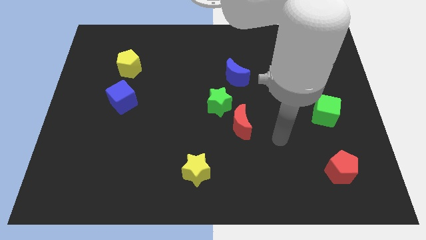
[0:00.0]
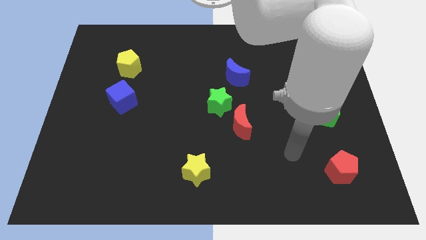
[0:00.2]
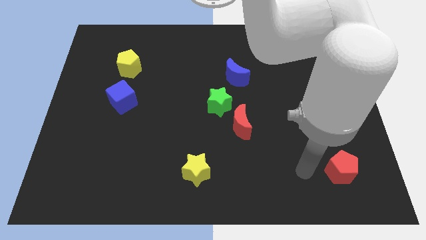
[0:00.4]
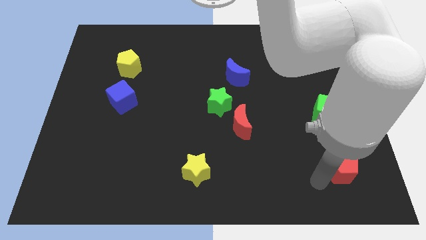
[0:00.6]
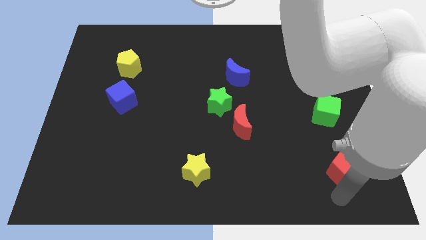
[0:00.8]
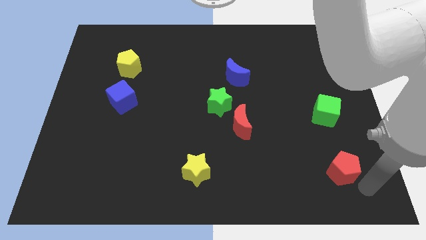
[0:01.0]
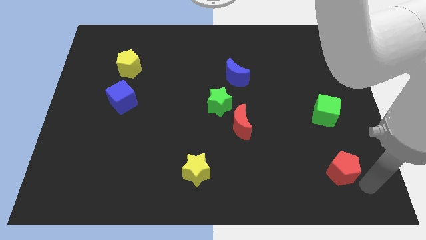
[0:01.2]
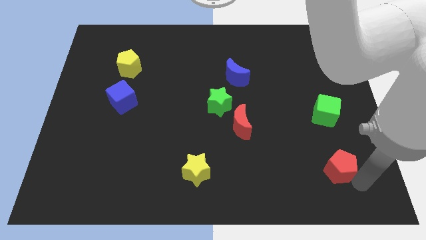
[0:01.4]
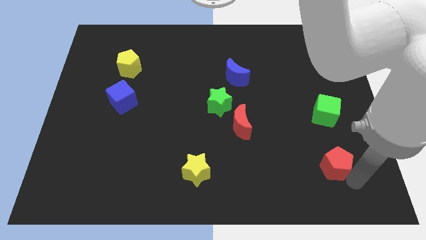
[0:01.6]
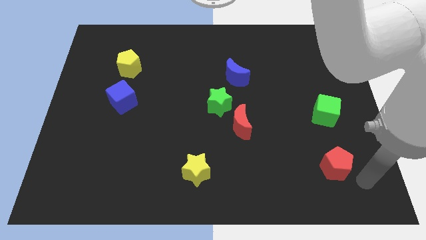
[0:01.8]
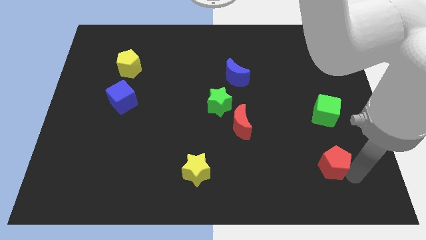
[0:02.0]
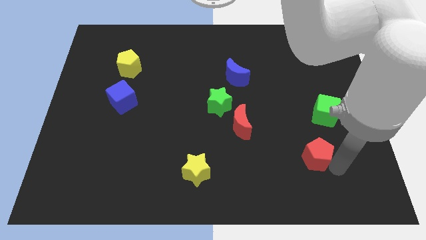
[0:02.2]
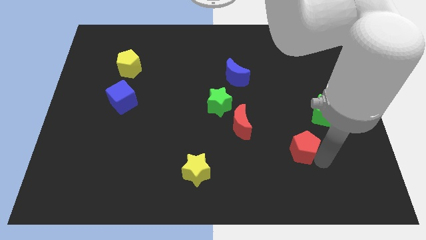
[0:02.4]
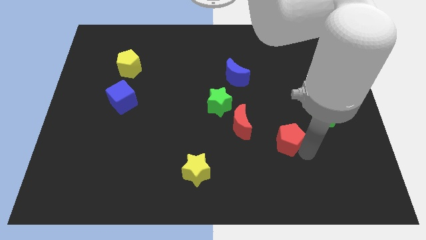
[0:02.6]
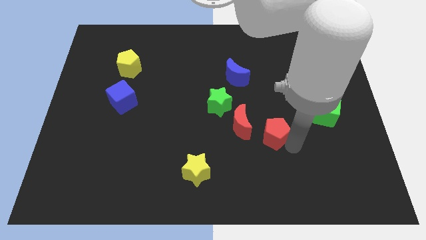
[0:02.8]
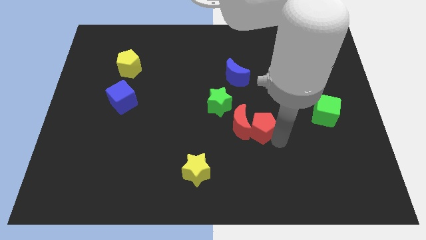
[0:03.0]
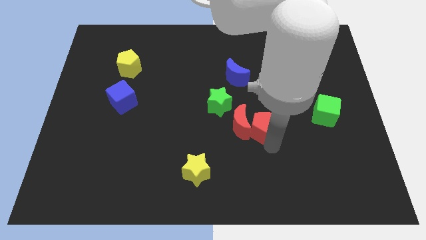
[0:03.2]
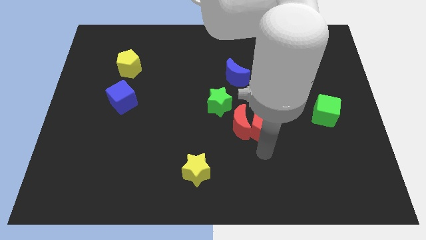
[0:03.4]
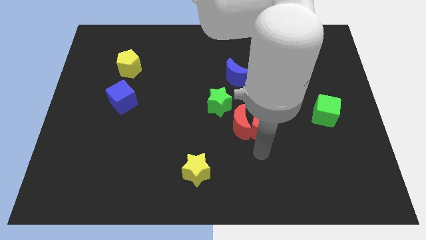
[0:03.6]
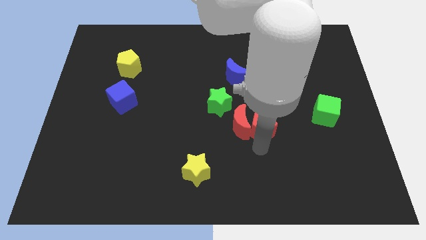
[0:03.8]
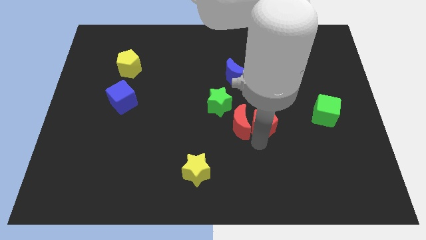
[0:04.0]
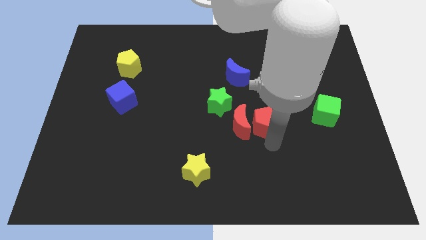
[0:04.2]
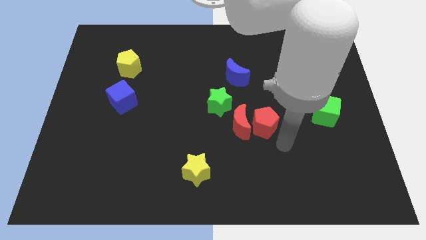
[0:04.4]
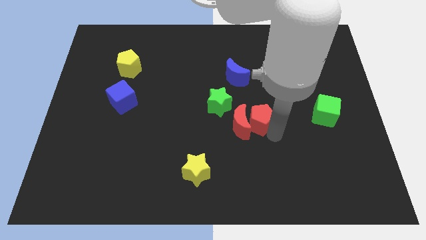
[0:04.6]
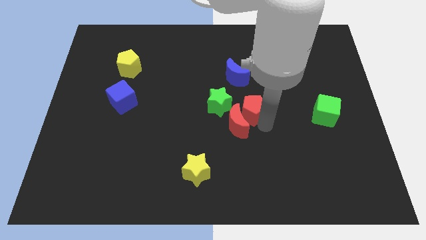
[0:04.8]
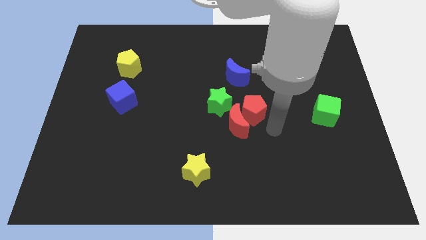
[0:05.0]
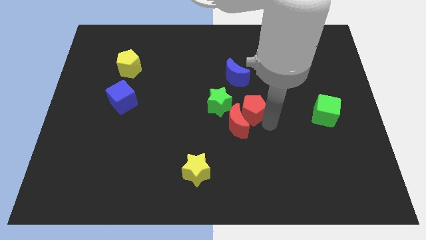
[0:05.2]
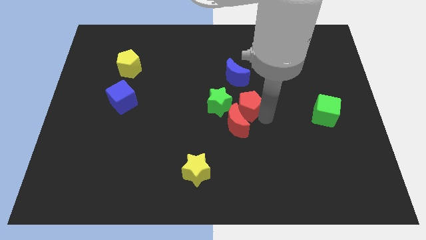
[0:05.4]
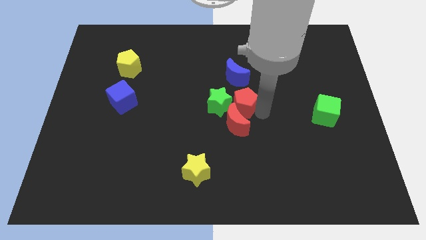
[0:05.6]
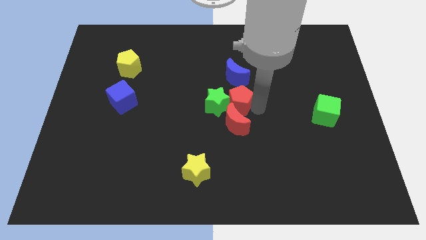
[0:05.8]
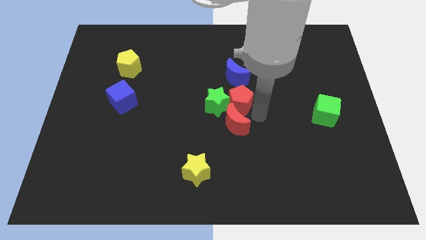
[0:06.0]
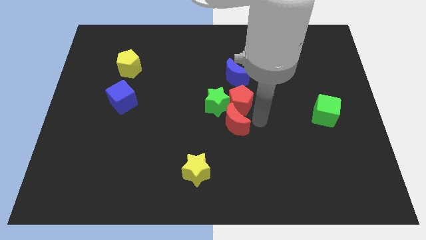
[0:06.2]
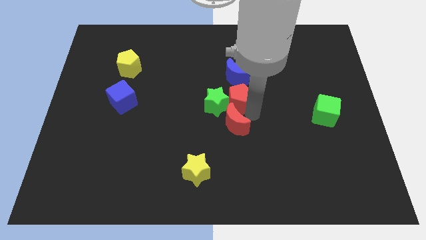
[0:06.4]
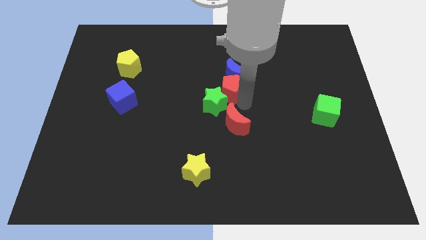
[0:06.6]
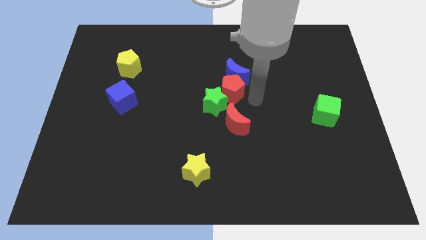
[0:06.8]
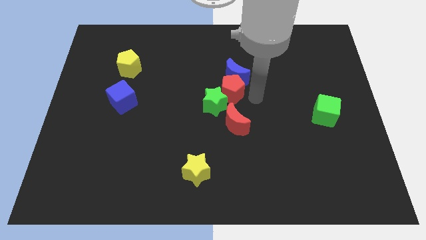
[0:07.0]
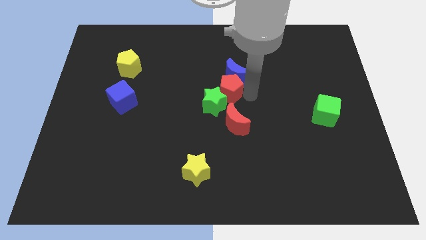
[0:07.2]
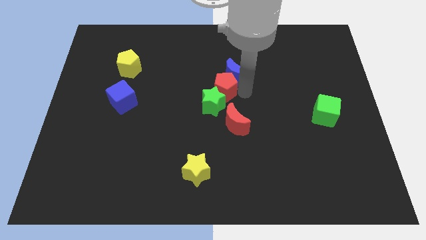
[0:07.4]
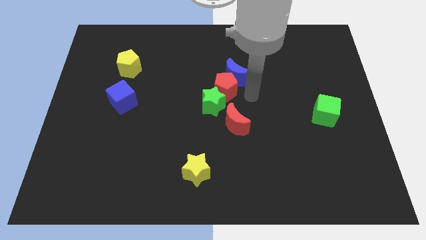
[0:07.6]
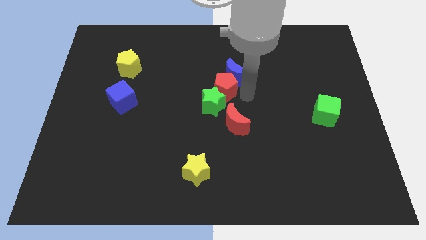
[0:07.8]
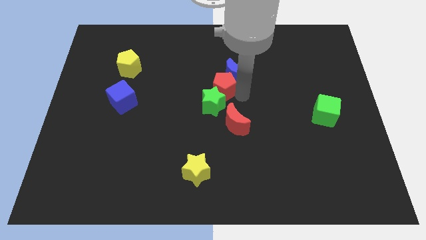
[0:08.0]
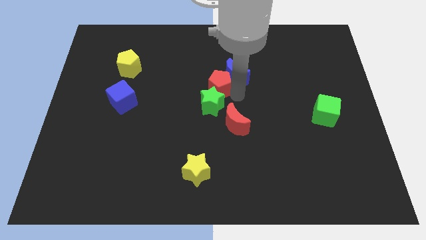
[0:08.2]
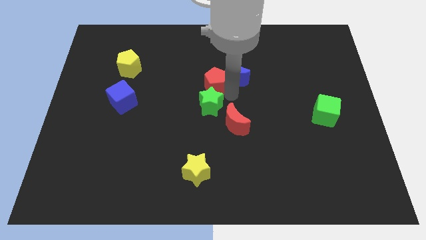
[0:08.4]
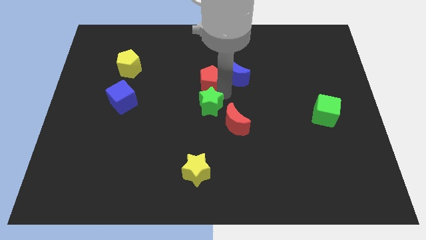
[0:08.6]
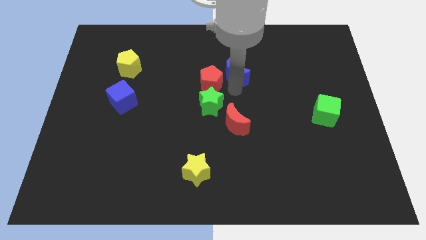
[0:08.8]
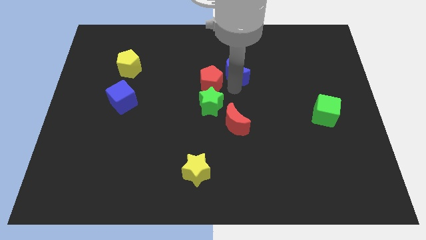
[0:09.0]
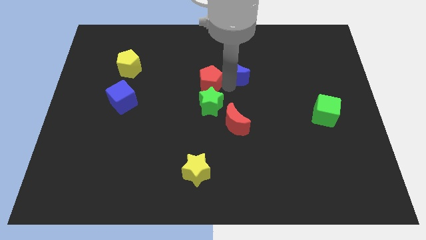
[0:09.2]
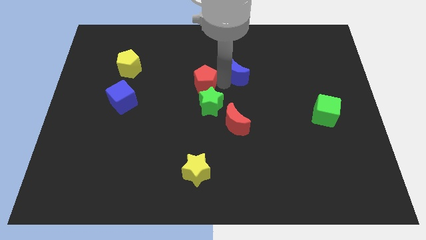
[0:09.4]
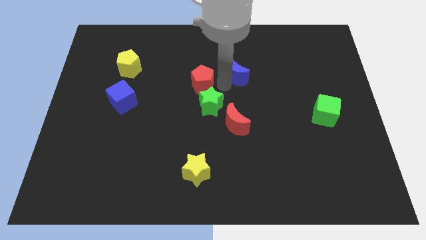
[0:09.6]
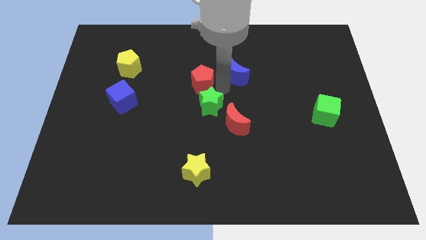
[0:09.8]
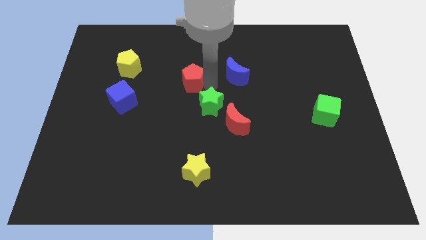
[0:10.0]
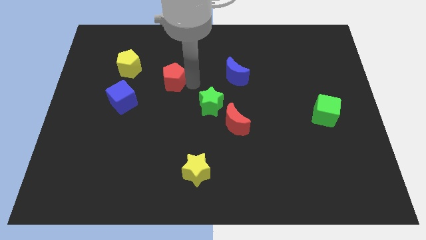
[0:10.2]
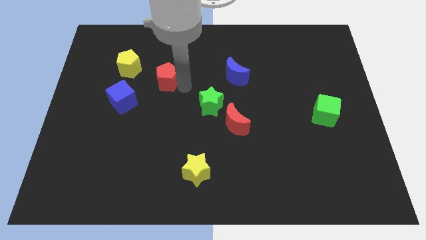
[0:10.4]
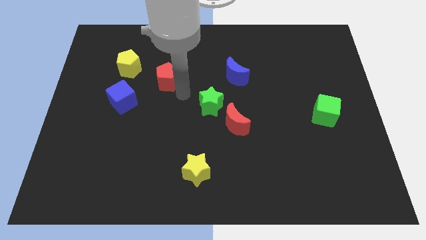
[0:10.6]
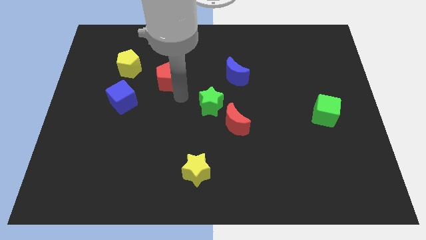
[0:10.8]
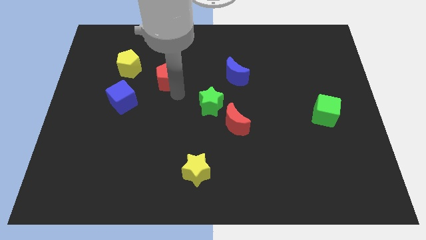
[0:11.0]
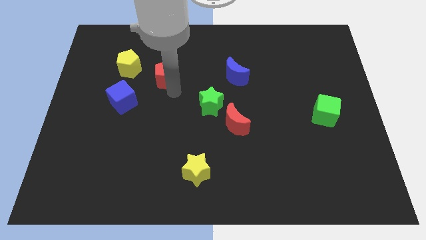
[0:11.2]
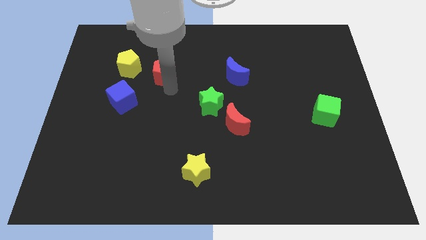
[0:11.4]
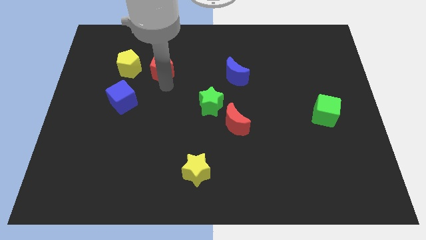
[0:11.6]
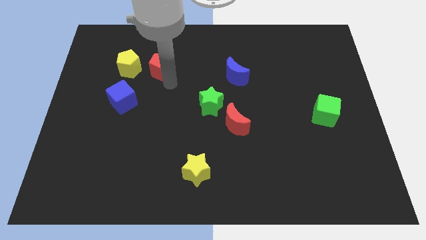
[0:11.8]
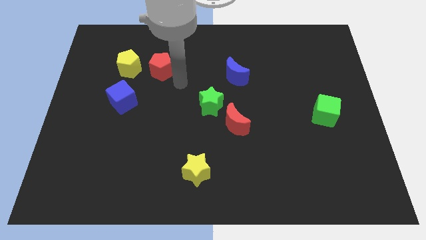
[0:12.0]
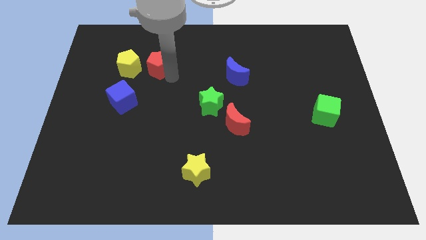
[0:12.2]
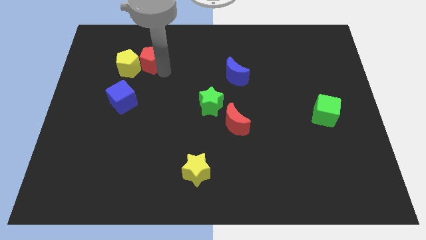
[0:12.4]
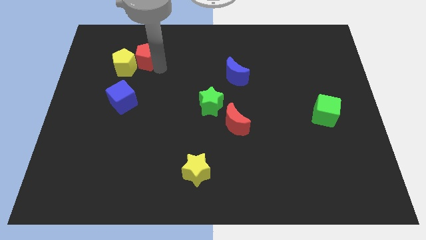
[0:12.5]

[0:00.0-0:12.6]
push the red pentagon to the top of the blue cube

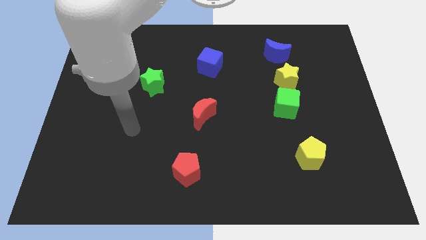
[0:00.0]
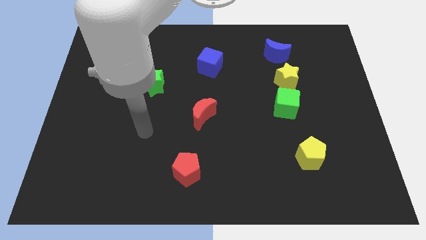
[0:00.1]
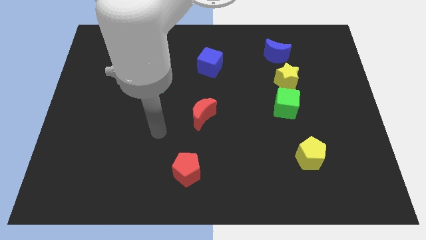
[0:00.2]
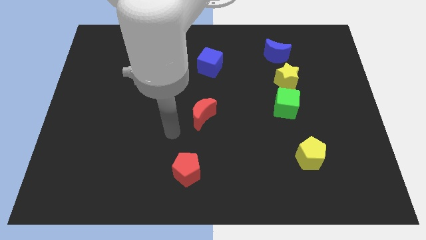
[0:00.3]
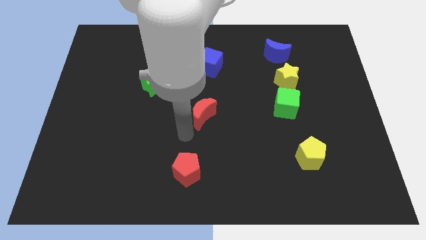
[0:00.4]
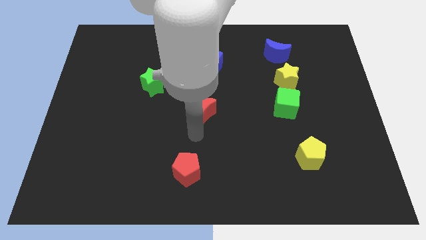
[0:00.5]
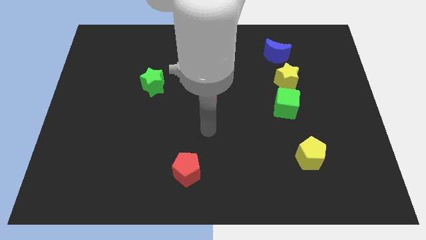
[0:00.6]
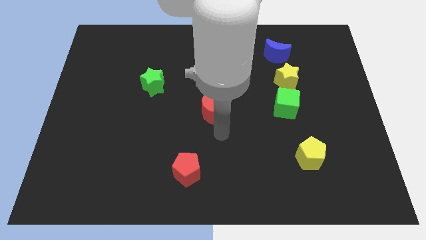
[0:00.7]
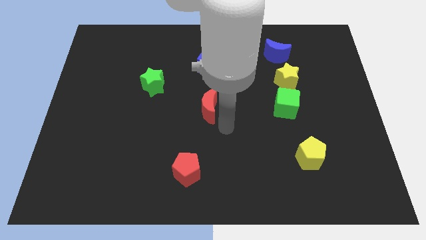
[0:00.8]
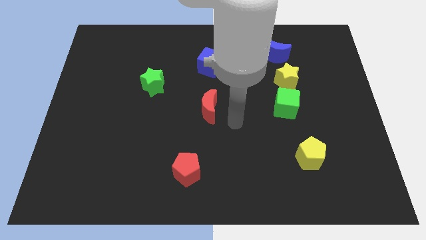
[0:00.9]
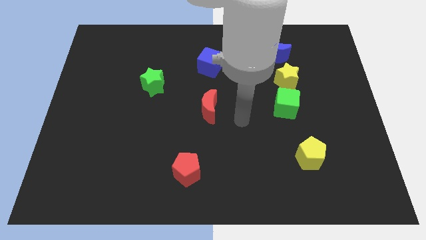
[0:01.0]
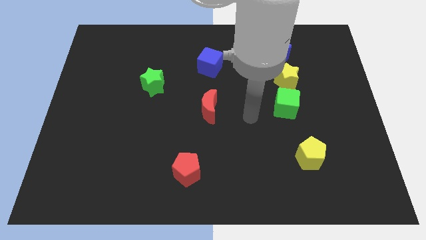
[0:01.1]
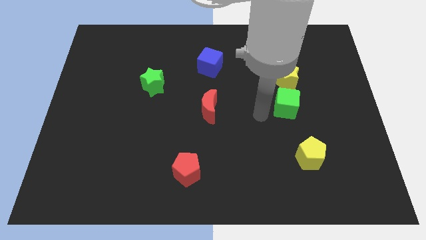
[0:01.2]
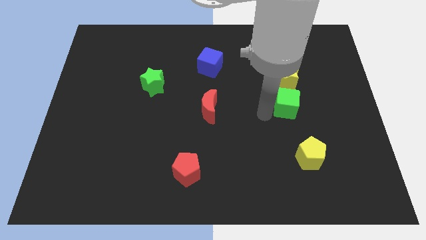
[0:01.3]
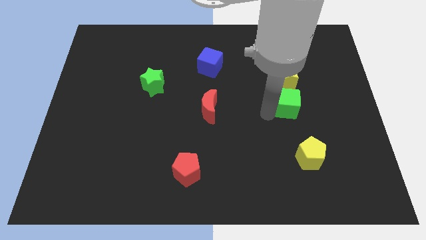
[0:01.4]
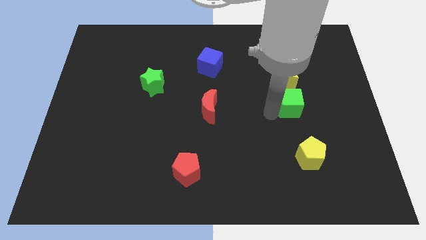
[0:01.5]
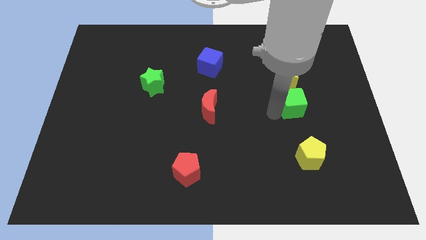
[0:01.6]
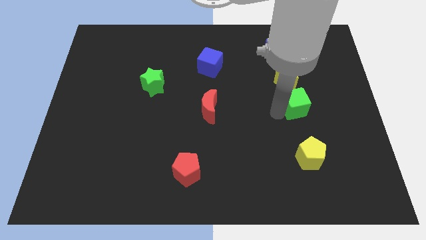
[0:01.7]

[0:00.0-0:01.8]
push the green cube to the bottom right of the yellow star
